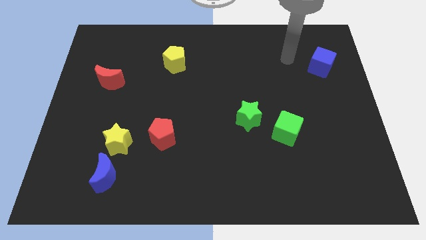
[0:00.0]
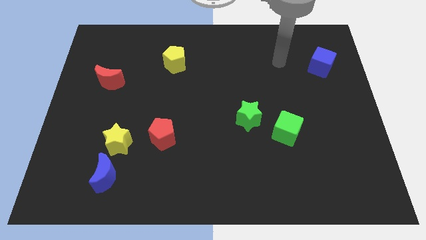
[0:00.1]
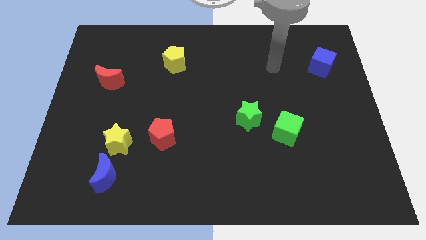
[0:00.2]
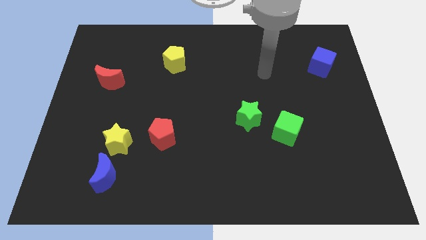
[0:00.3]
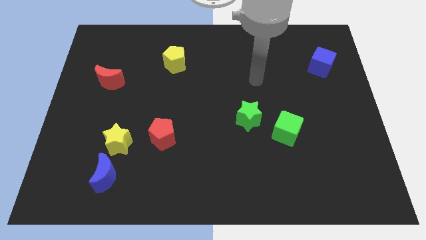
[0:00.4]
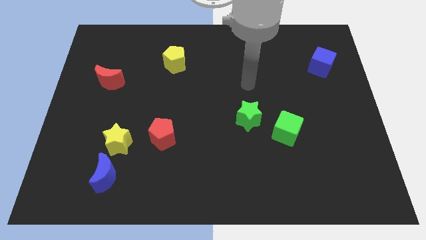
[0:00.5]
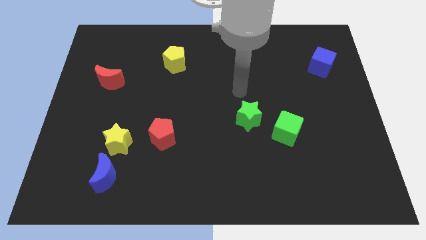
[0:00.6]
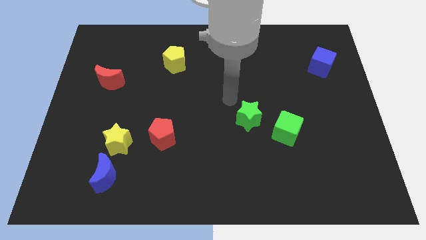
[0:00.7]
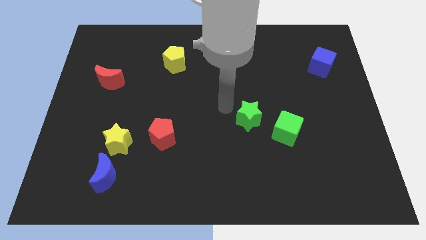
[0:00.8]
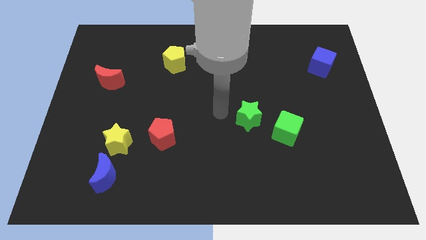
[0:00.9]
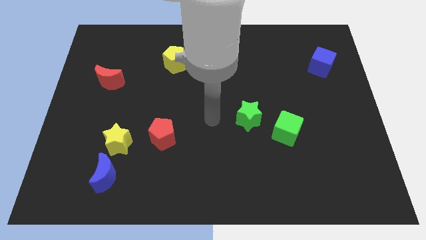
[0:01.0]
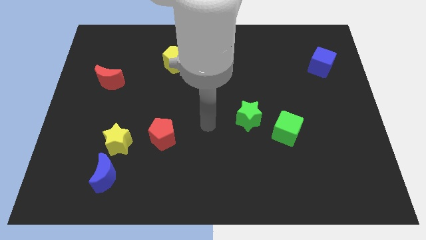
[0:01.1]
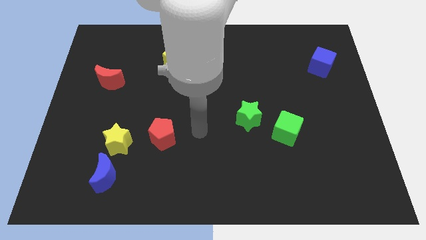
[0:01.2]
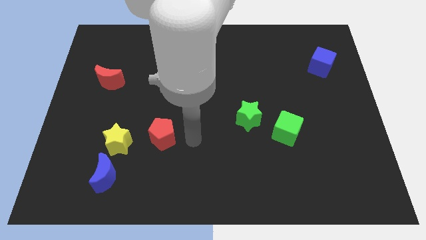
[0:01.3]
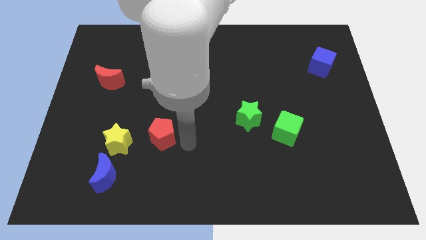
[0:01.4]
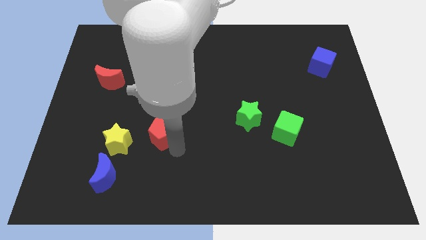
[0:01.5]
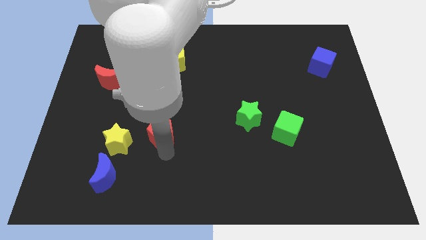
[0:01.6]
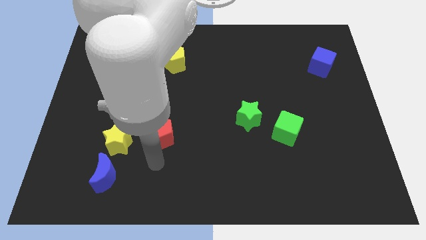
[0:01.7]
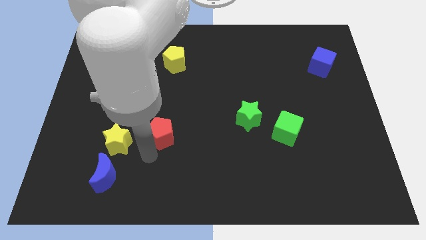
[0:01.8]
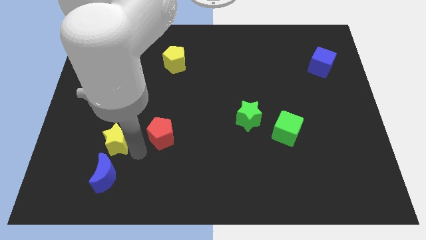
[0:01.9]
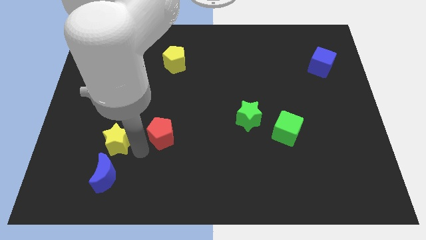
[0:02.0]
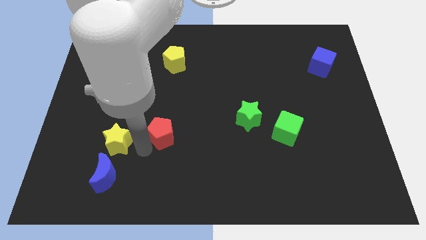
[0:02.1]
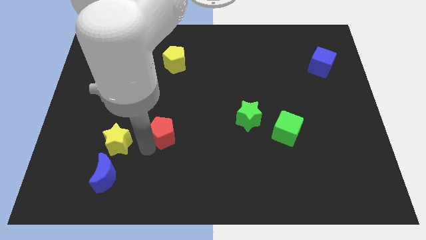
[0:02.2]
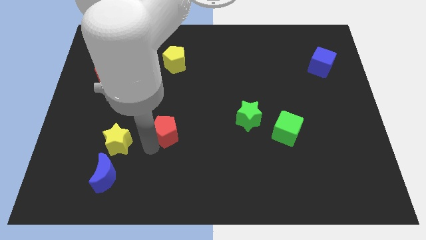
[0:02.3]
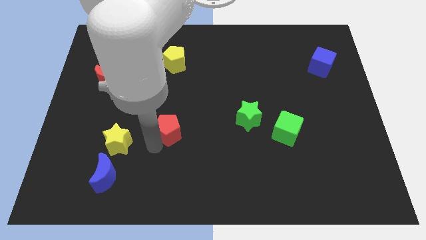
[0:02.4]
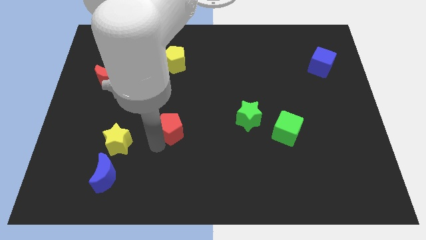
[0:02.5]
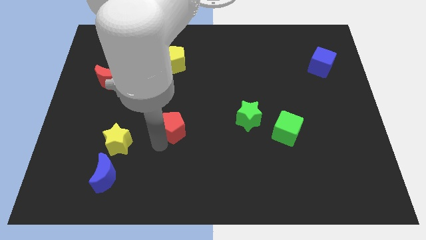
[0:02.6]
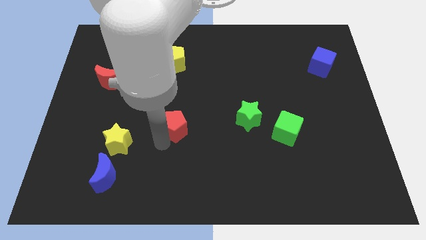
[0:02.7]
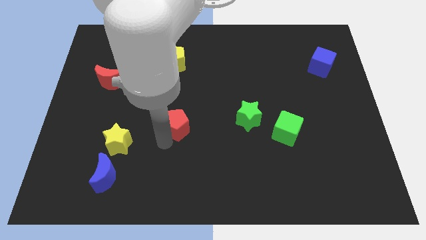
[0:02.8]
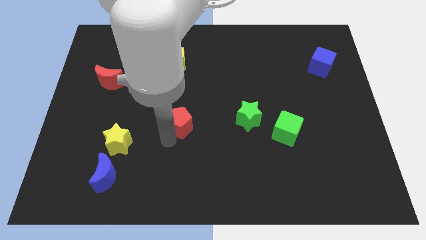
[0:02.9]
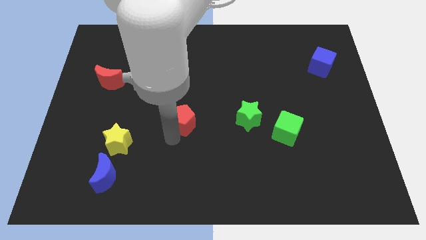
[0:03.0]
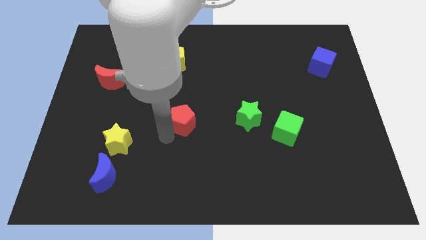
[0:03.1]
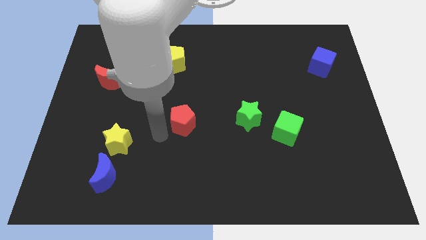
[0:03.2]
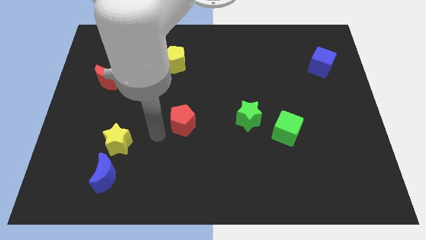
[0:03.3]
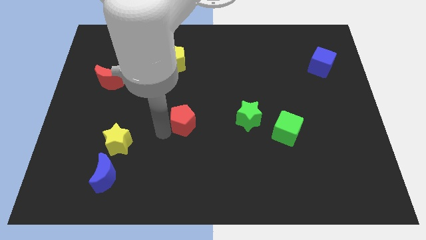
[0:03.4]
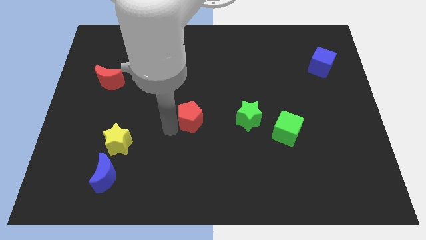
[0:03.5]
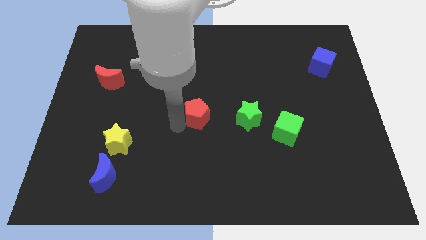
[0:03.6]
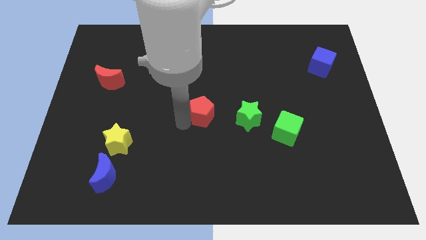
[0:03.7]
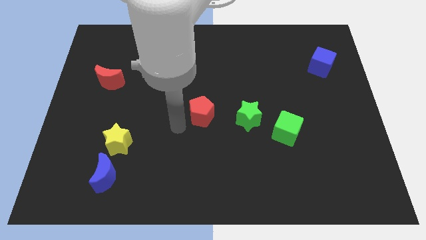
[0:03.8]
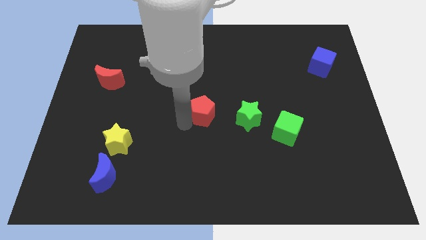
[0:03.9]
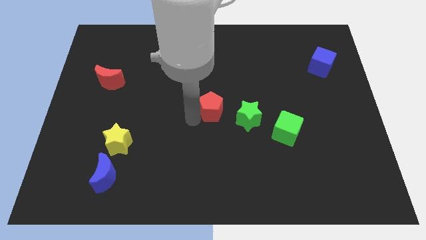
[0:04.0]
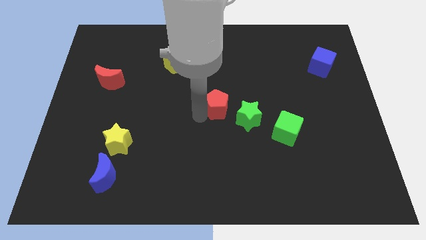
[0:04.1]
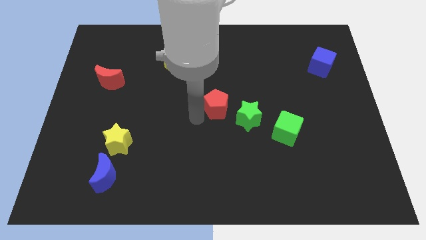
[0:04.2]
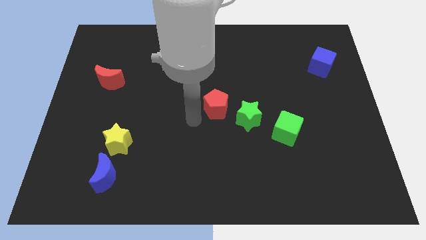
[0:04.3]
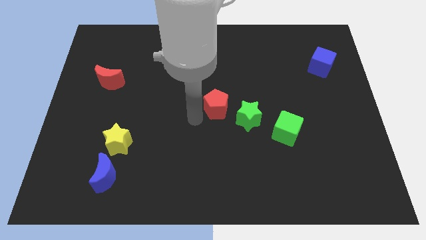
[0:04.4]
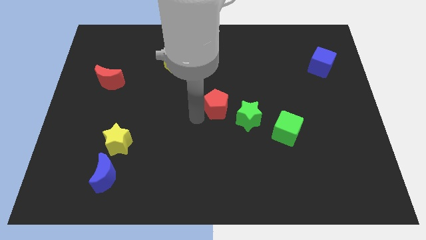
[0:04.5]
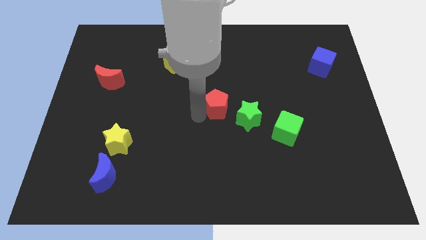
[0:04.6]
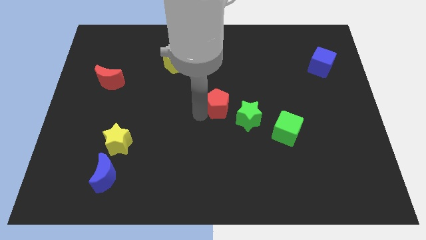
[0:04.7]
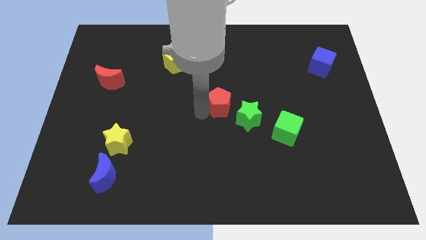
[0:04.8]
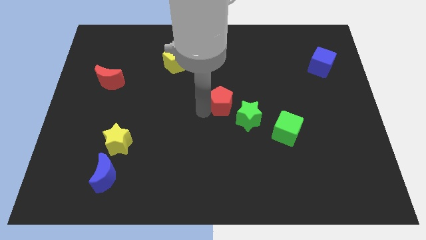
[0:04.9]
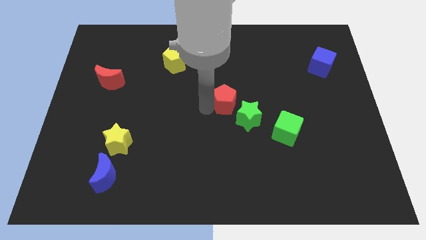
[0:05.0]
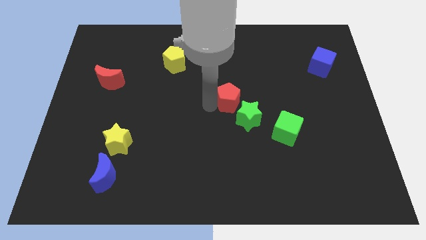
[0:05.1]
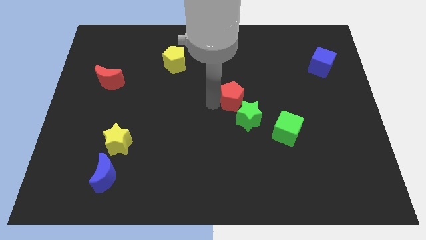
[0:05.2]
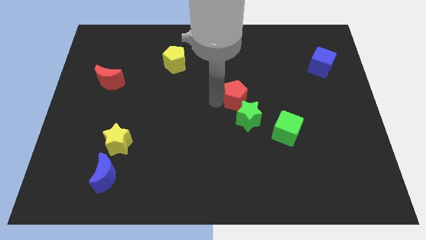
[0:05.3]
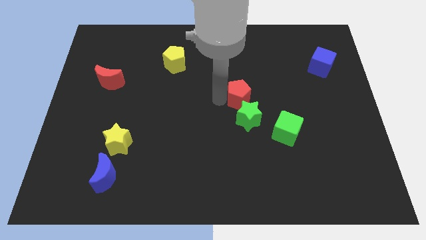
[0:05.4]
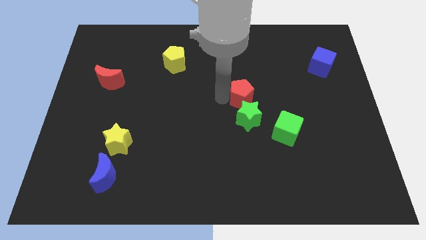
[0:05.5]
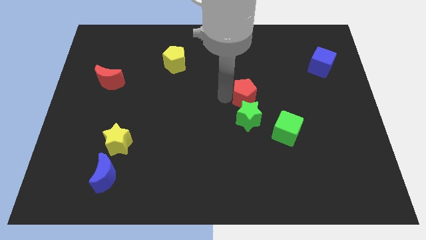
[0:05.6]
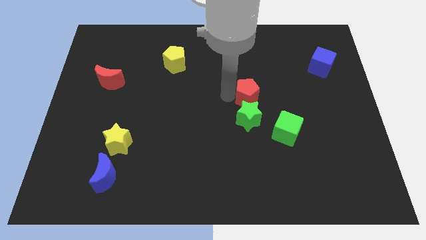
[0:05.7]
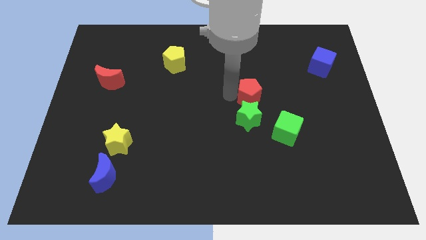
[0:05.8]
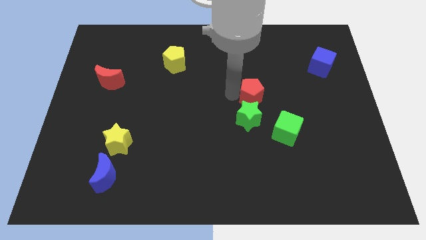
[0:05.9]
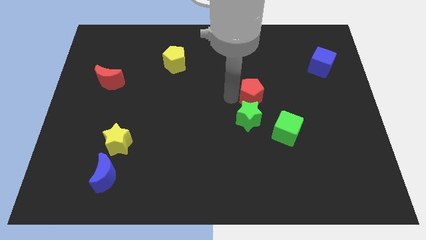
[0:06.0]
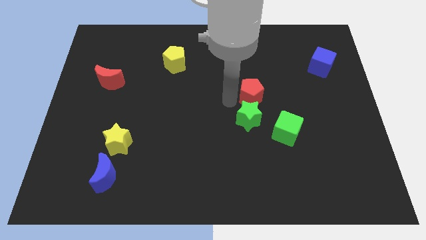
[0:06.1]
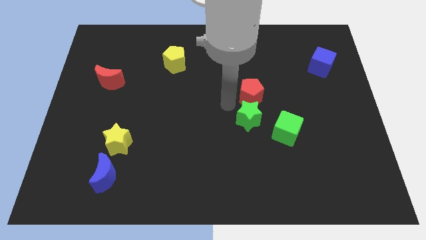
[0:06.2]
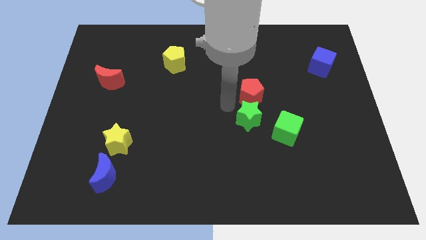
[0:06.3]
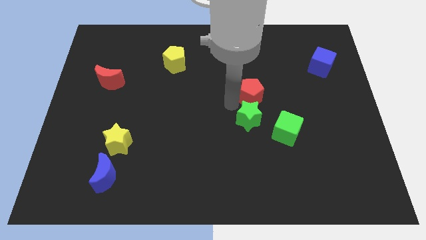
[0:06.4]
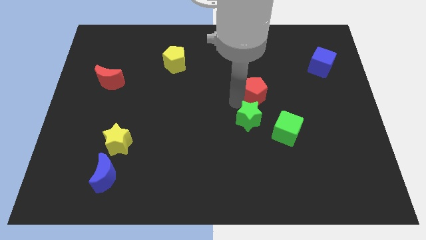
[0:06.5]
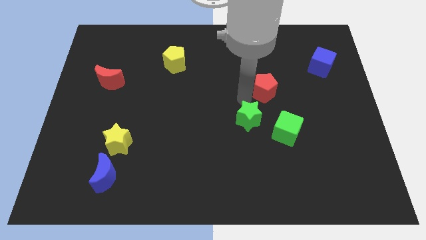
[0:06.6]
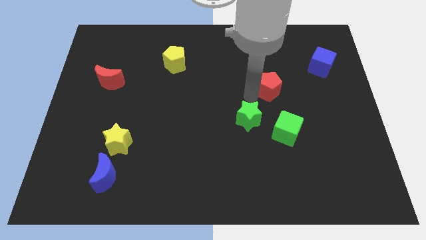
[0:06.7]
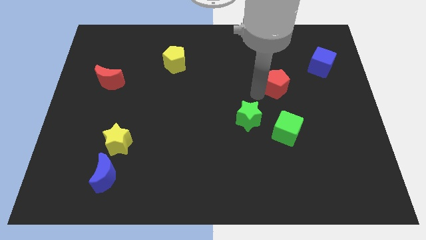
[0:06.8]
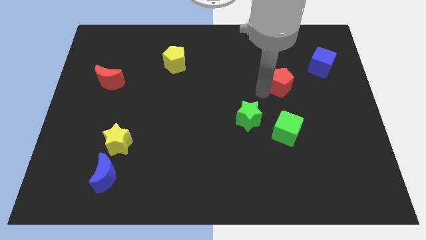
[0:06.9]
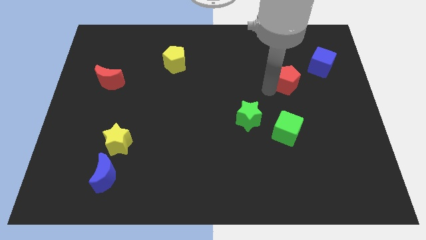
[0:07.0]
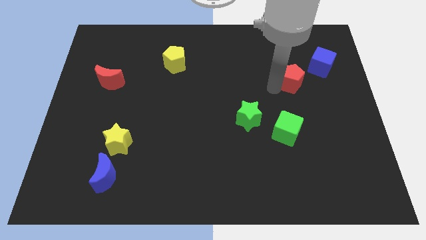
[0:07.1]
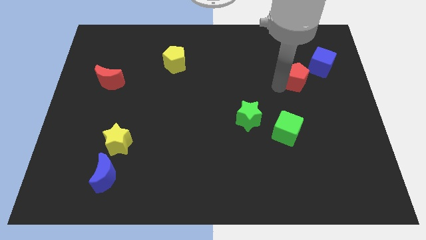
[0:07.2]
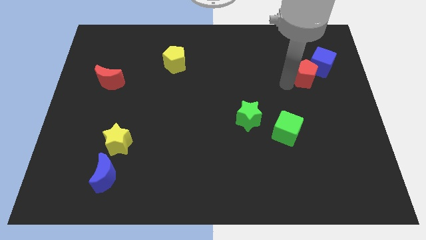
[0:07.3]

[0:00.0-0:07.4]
slide the red pentagon to the blue cube

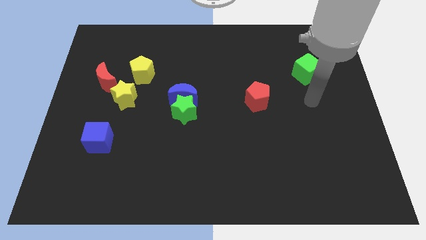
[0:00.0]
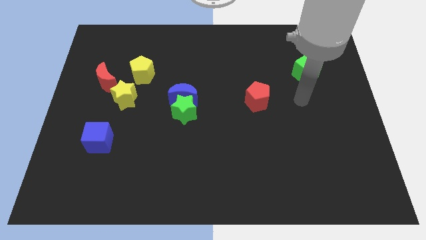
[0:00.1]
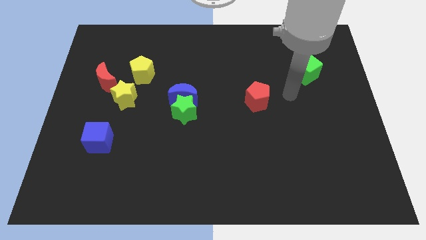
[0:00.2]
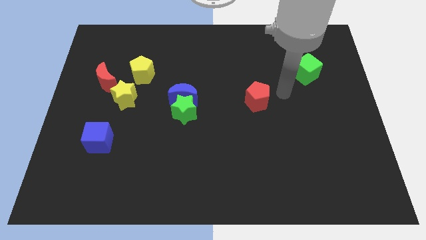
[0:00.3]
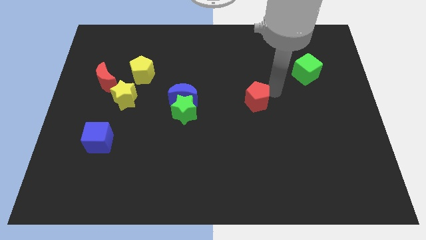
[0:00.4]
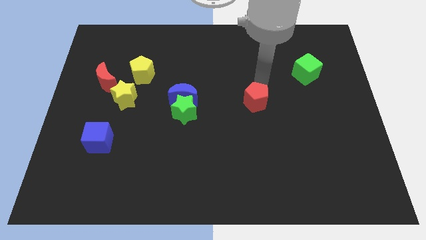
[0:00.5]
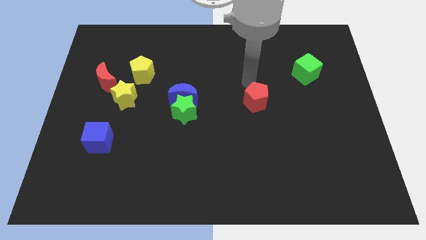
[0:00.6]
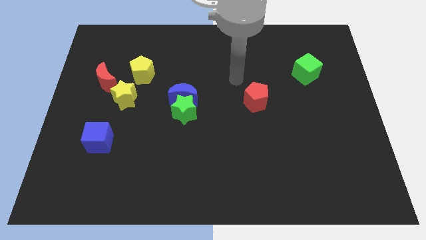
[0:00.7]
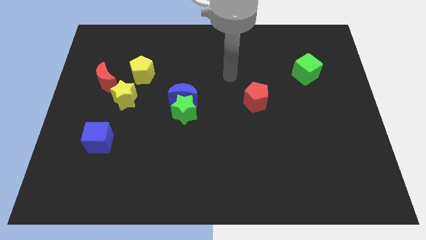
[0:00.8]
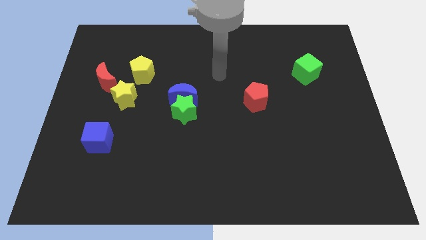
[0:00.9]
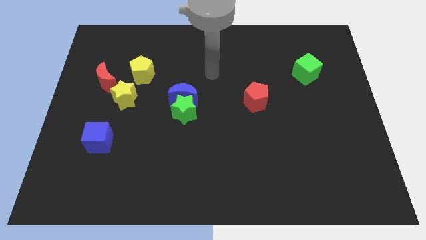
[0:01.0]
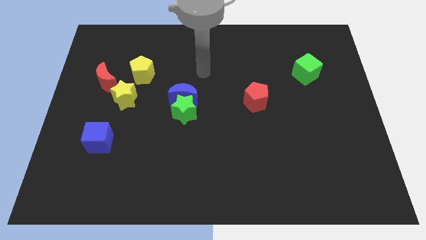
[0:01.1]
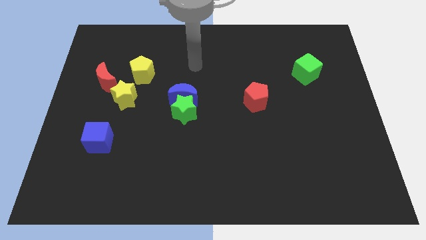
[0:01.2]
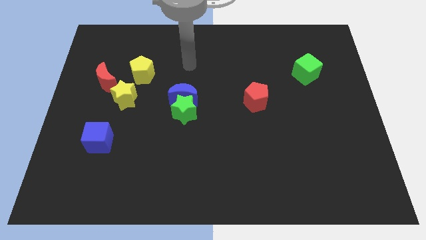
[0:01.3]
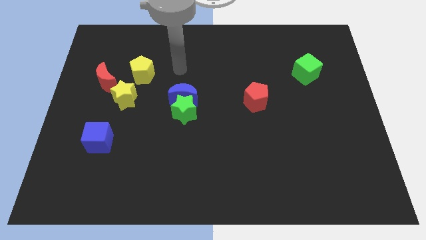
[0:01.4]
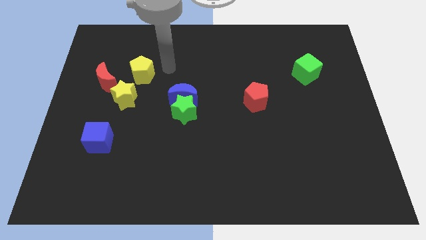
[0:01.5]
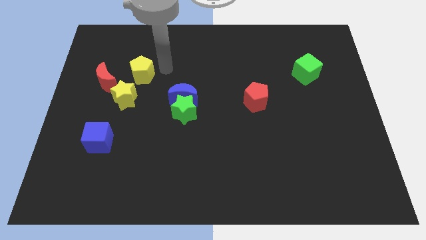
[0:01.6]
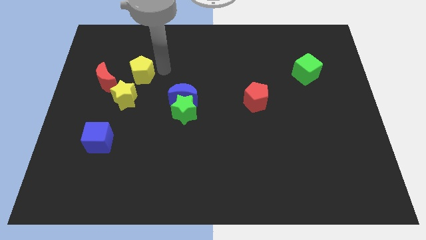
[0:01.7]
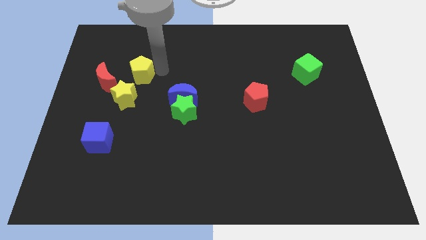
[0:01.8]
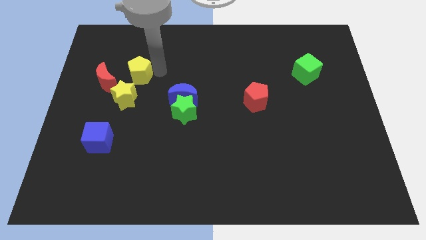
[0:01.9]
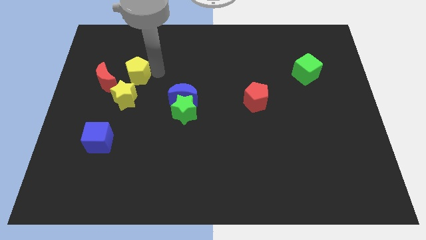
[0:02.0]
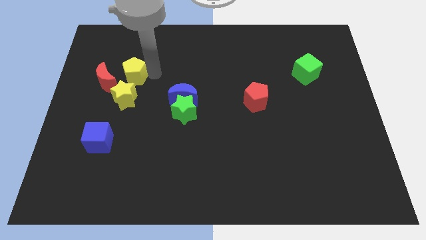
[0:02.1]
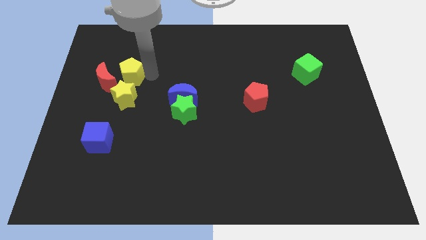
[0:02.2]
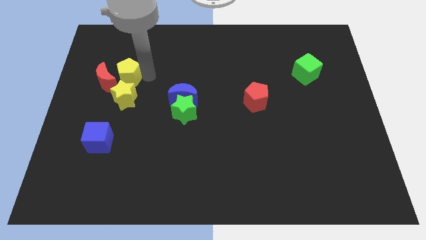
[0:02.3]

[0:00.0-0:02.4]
move the yellow pentagon next to the red moon
